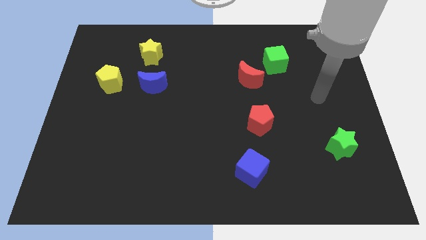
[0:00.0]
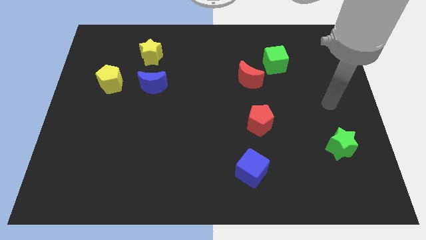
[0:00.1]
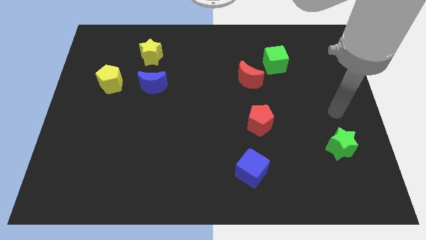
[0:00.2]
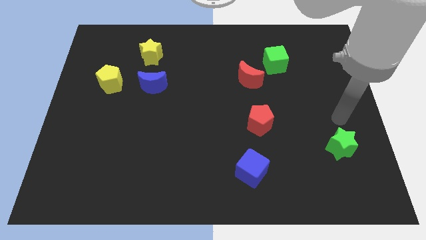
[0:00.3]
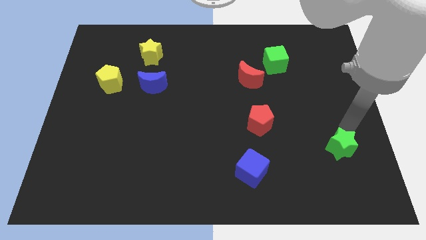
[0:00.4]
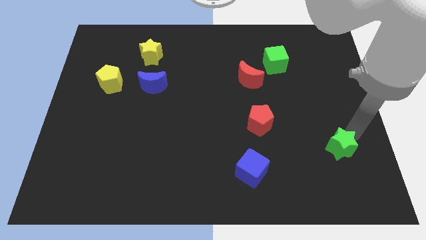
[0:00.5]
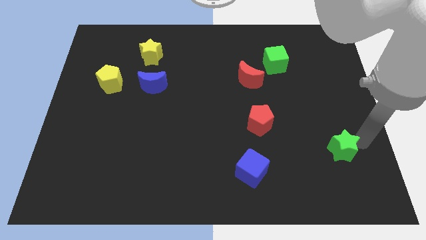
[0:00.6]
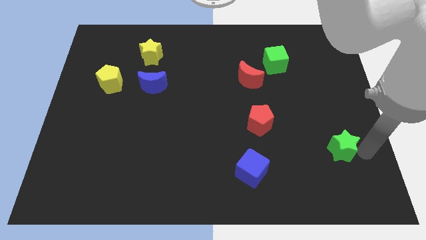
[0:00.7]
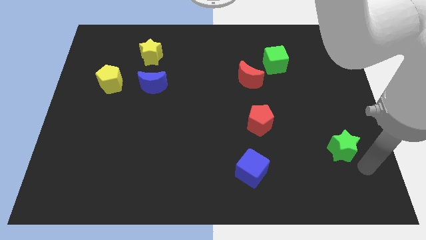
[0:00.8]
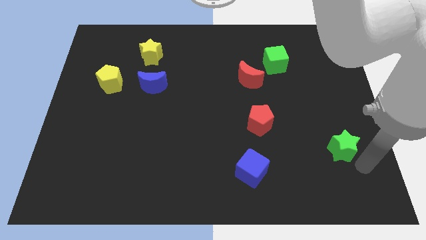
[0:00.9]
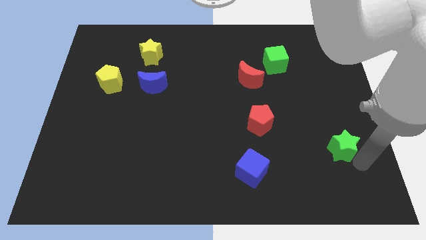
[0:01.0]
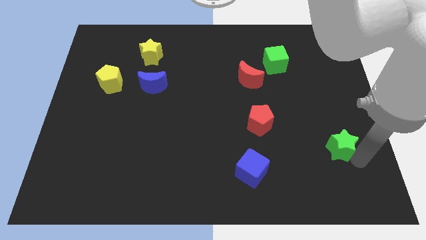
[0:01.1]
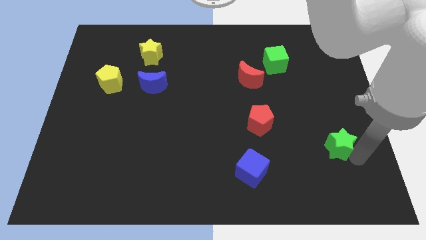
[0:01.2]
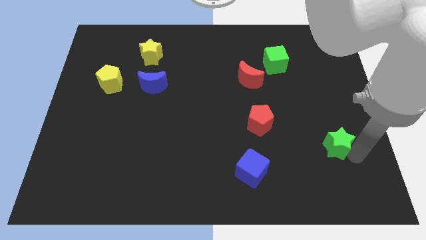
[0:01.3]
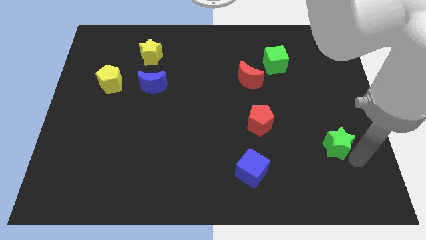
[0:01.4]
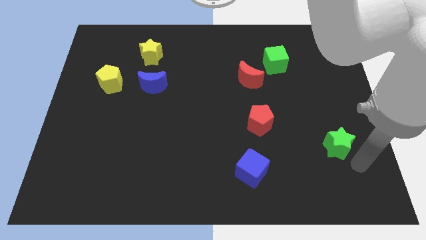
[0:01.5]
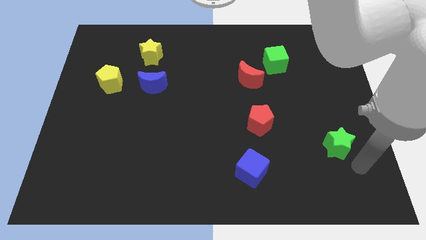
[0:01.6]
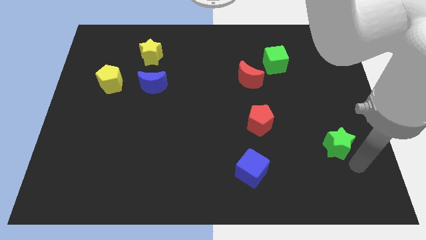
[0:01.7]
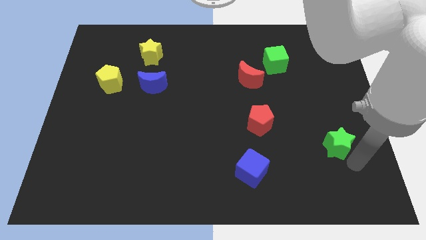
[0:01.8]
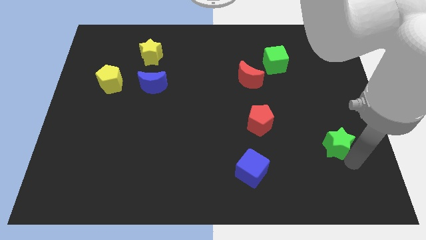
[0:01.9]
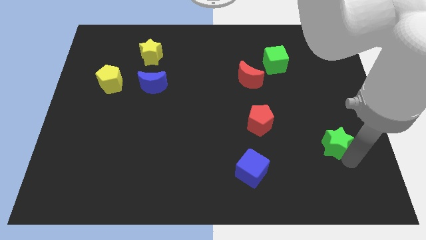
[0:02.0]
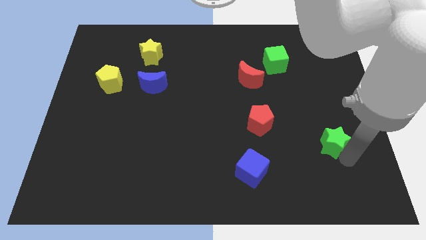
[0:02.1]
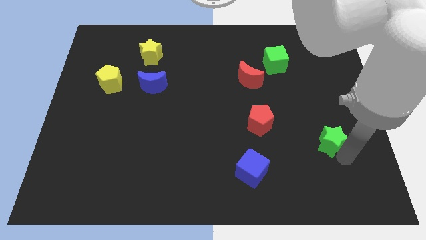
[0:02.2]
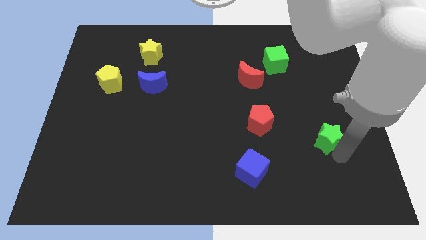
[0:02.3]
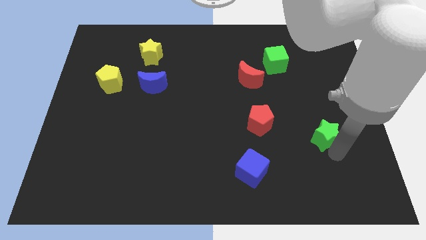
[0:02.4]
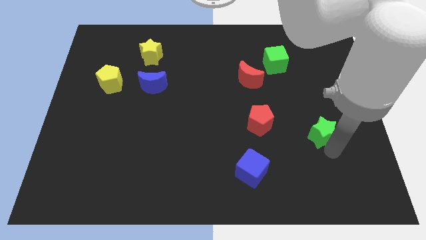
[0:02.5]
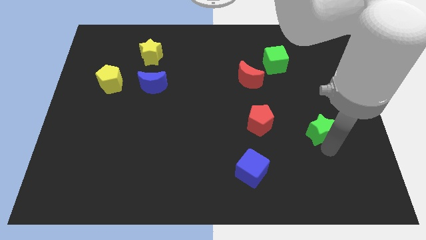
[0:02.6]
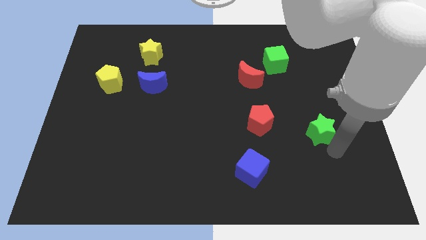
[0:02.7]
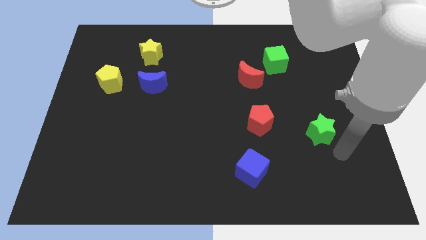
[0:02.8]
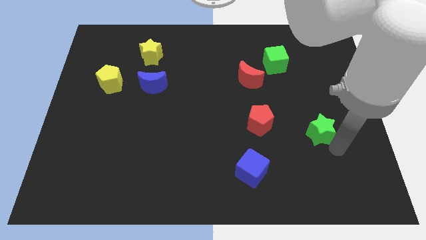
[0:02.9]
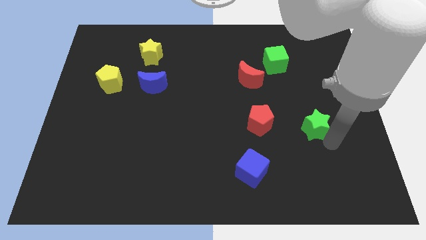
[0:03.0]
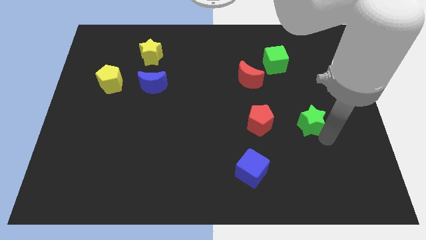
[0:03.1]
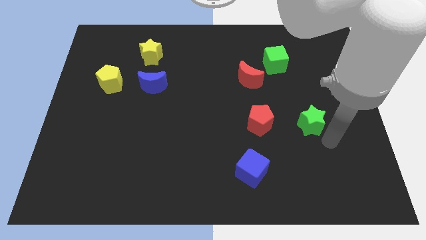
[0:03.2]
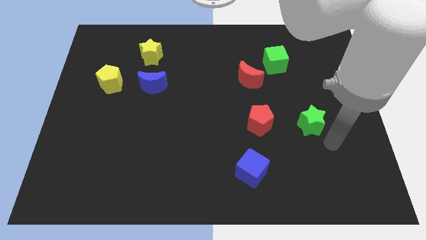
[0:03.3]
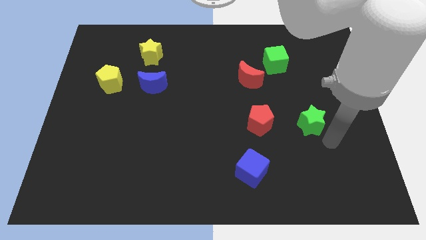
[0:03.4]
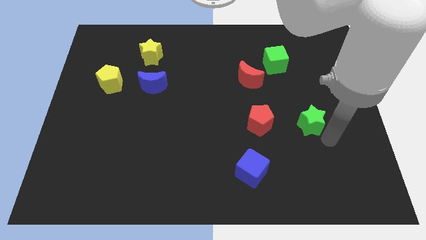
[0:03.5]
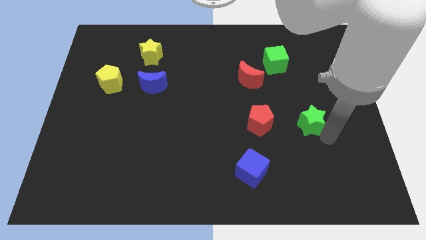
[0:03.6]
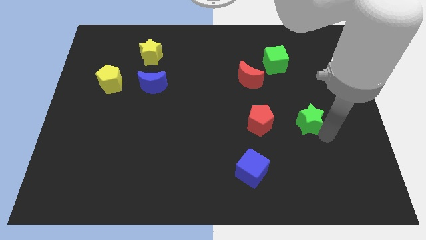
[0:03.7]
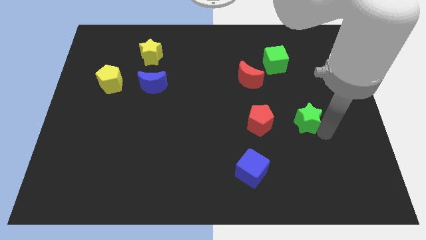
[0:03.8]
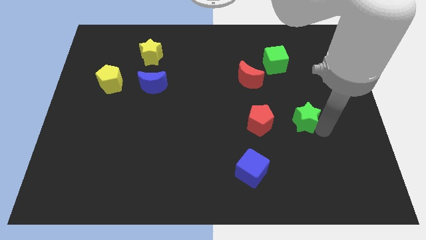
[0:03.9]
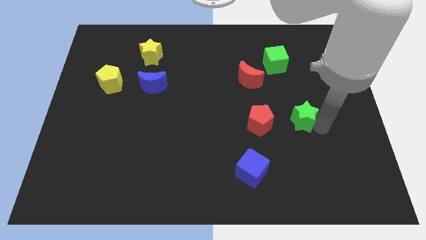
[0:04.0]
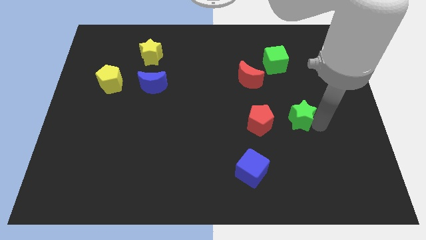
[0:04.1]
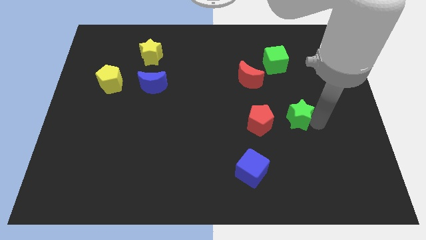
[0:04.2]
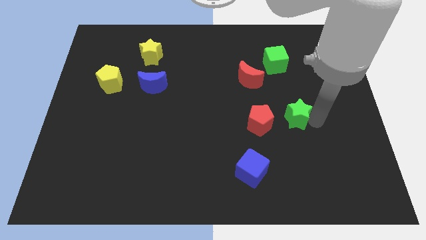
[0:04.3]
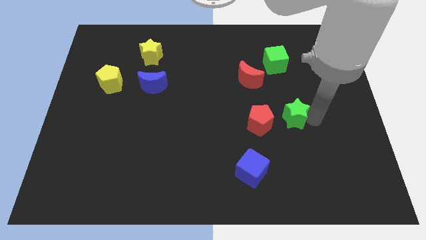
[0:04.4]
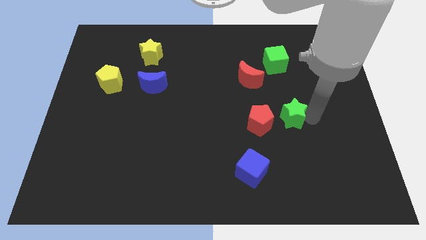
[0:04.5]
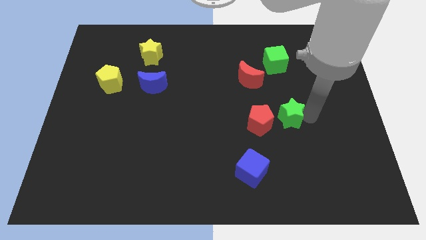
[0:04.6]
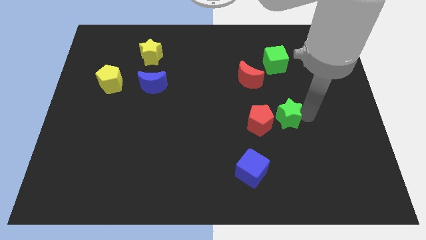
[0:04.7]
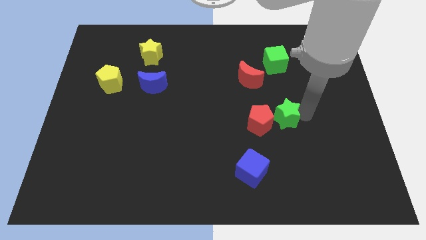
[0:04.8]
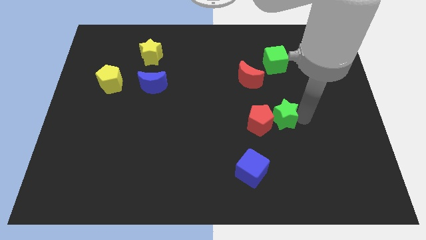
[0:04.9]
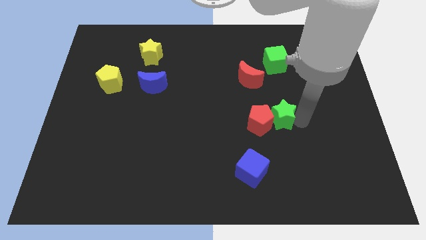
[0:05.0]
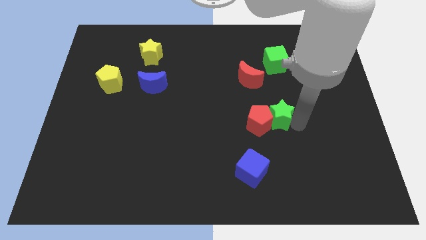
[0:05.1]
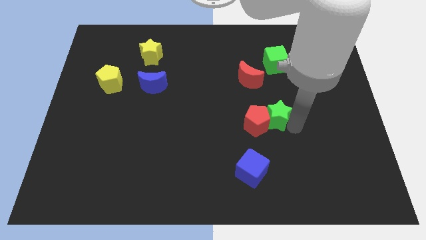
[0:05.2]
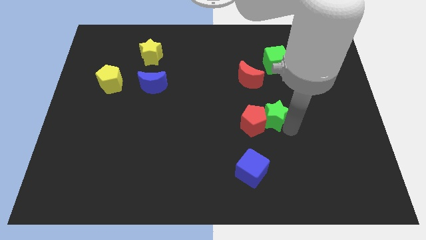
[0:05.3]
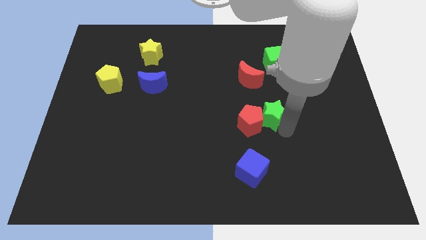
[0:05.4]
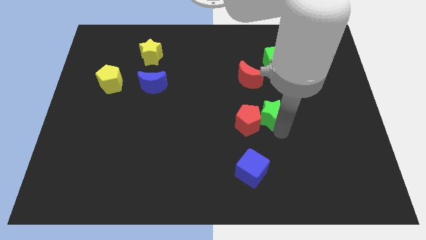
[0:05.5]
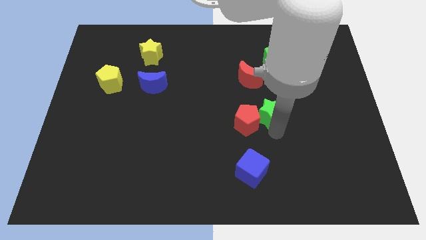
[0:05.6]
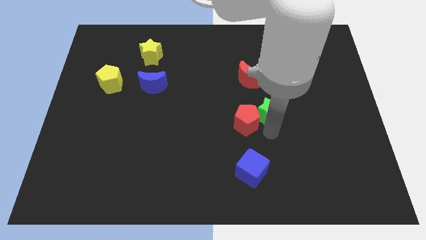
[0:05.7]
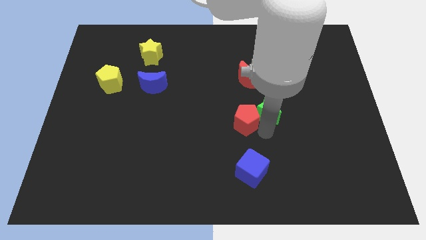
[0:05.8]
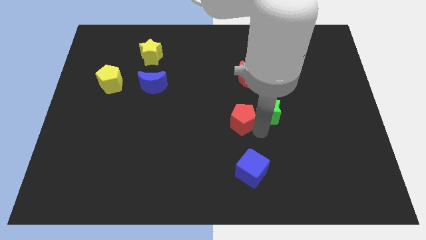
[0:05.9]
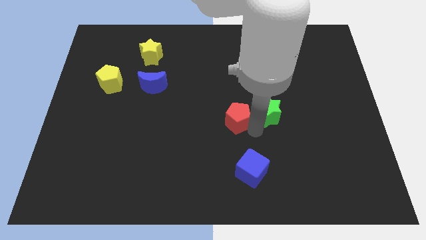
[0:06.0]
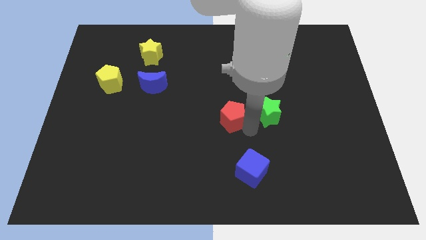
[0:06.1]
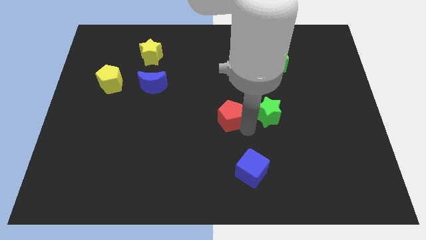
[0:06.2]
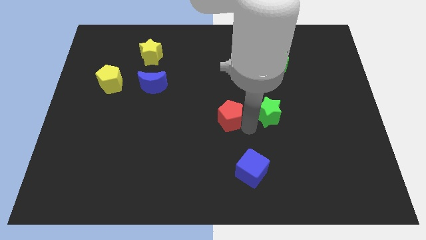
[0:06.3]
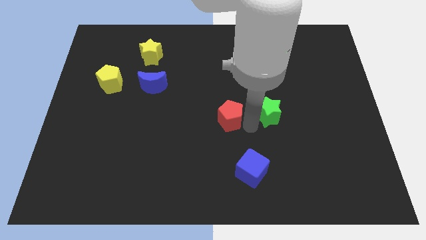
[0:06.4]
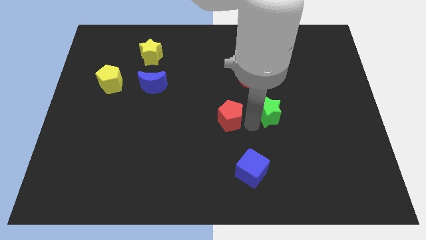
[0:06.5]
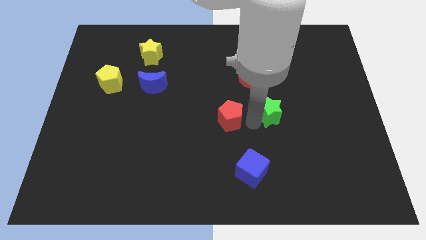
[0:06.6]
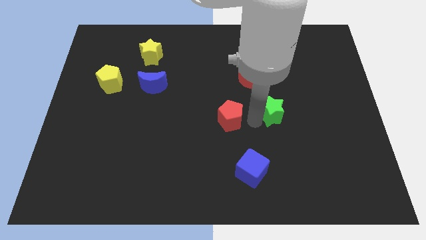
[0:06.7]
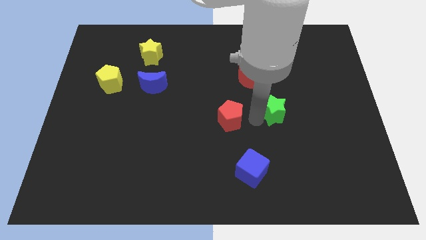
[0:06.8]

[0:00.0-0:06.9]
put the green star to the bottom right side of the red moon
